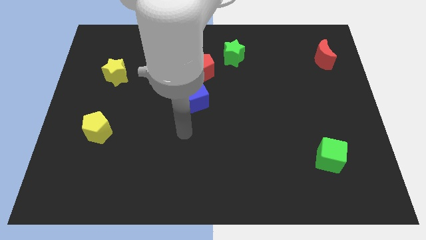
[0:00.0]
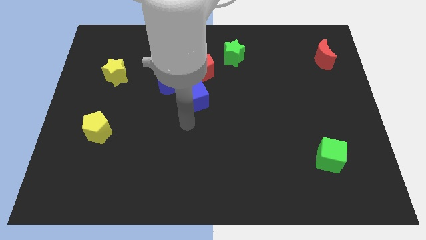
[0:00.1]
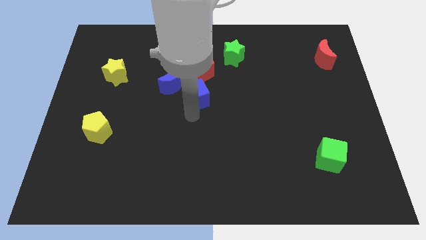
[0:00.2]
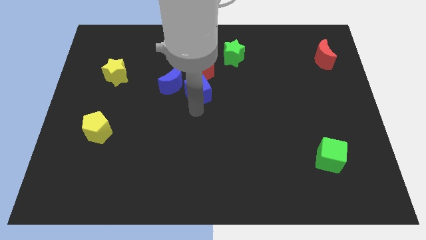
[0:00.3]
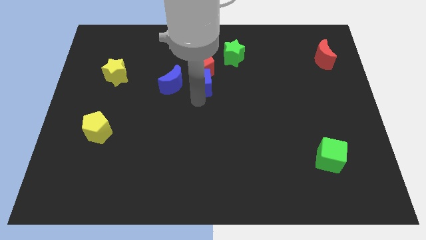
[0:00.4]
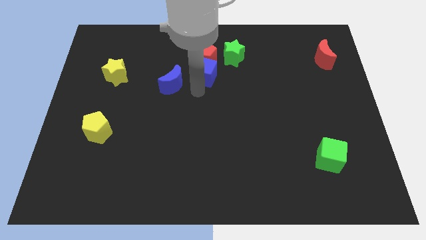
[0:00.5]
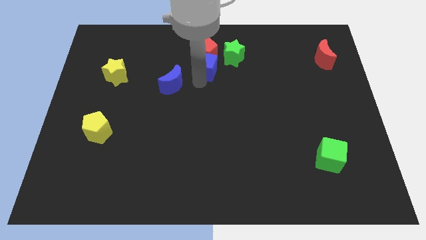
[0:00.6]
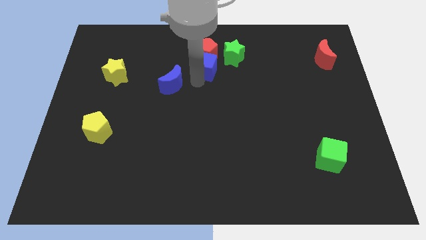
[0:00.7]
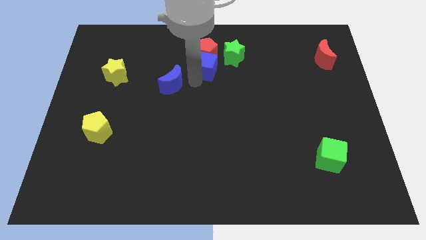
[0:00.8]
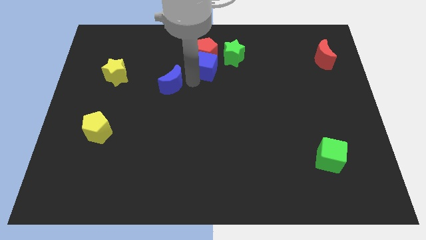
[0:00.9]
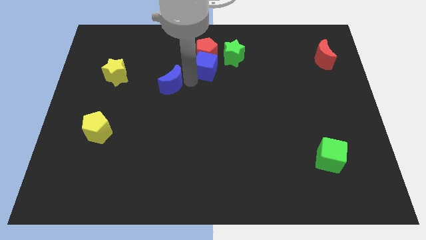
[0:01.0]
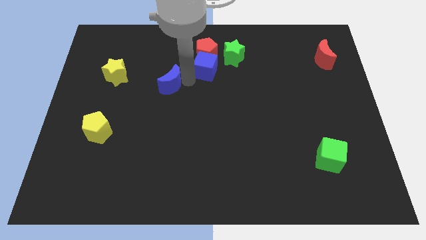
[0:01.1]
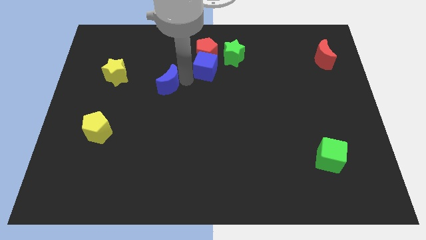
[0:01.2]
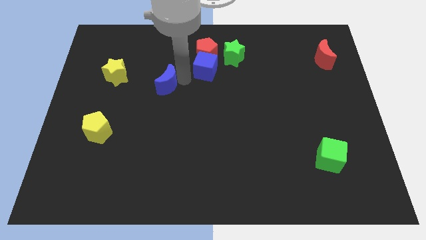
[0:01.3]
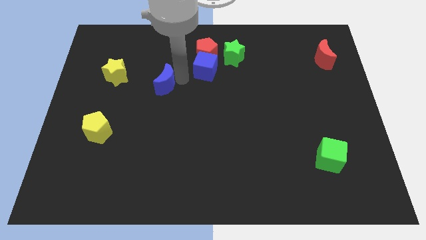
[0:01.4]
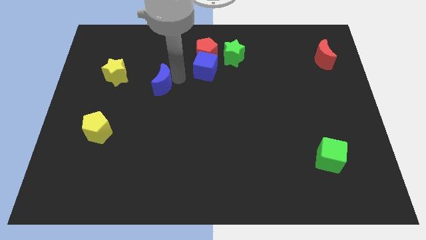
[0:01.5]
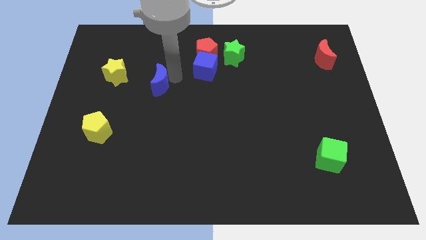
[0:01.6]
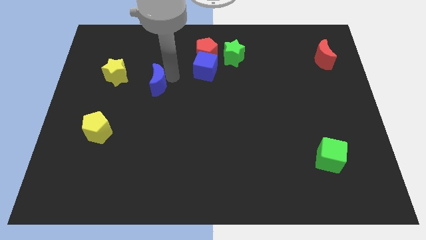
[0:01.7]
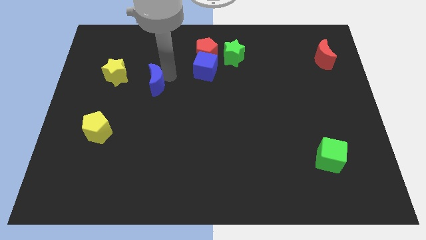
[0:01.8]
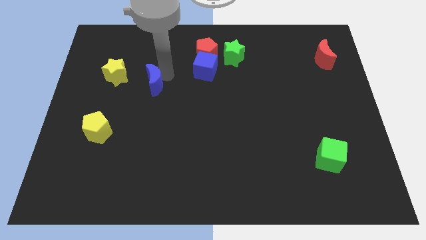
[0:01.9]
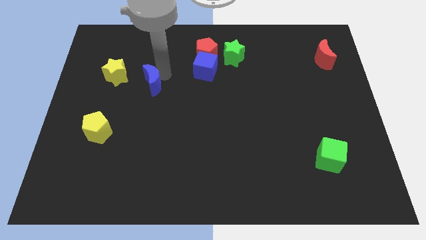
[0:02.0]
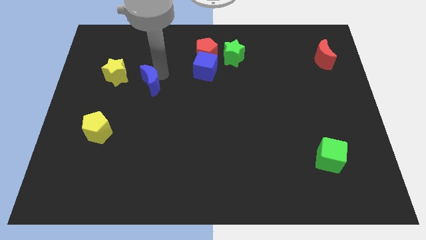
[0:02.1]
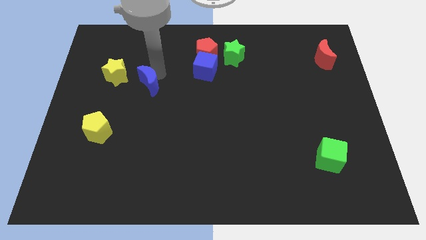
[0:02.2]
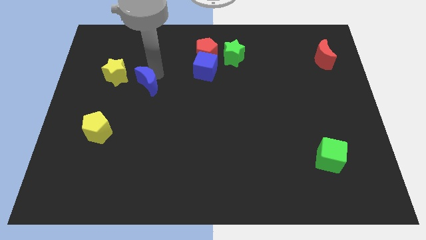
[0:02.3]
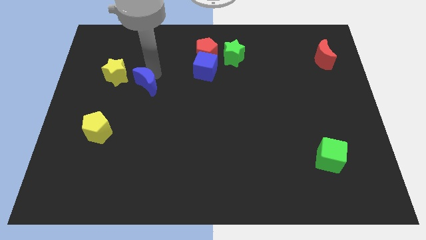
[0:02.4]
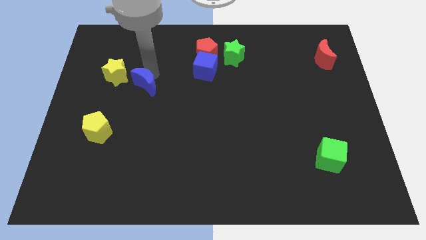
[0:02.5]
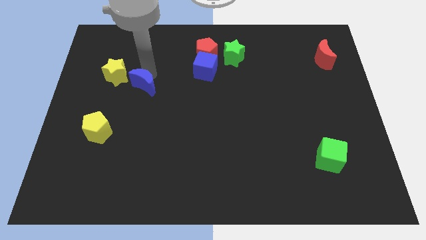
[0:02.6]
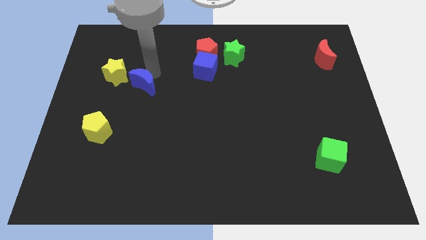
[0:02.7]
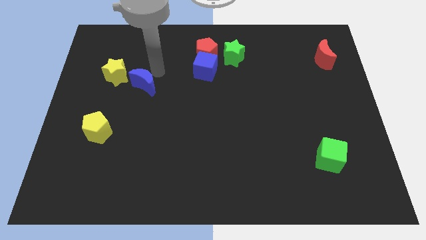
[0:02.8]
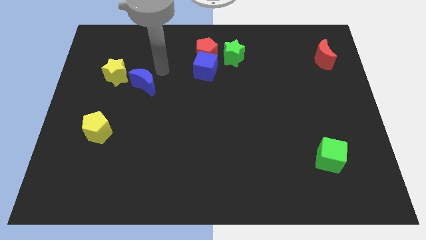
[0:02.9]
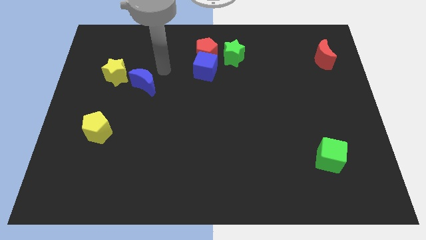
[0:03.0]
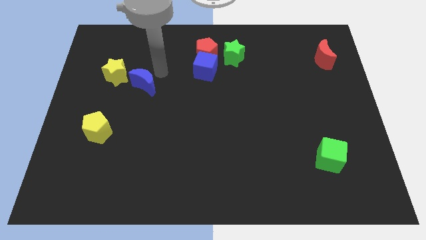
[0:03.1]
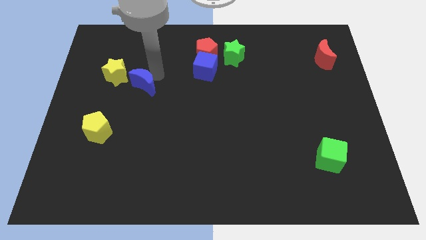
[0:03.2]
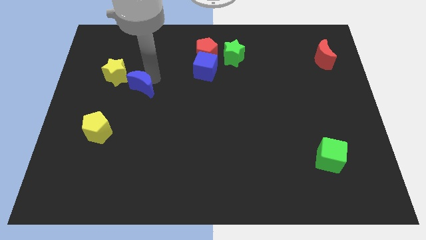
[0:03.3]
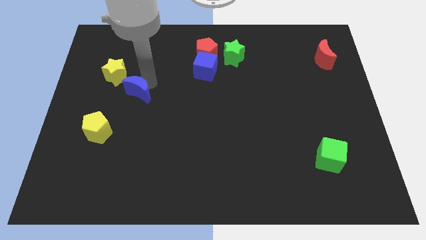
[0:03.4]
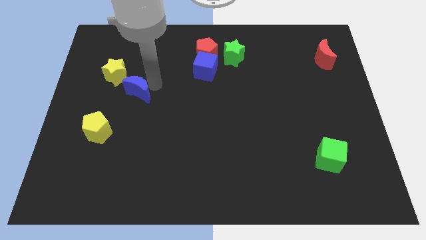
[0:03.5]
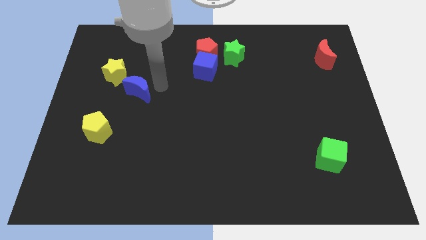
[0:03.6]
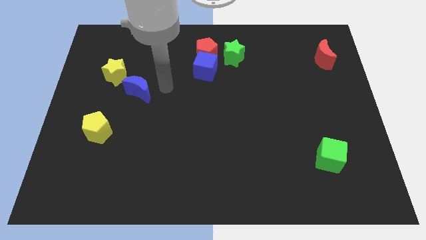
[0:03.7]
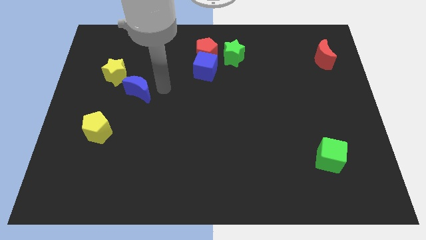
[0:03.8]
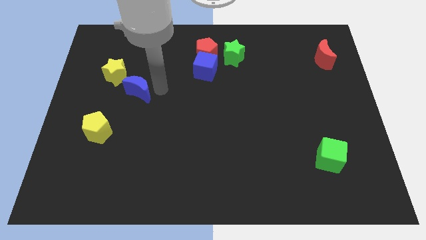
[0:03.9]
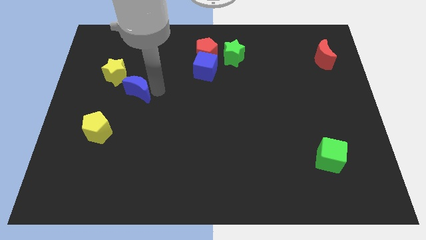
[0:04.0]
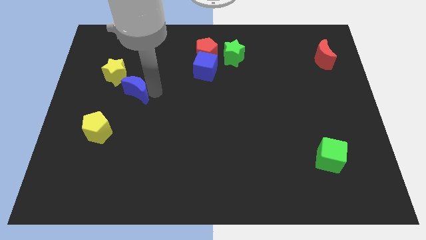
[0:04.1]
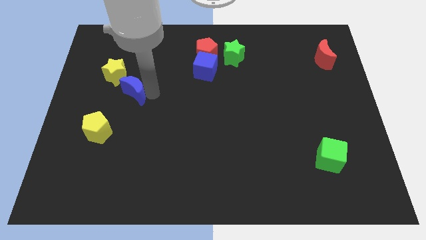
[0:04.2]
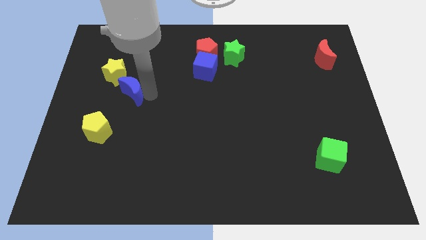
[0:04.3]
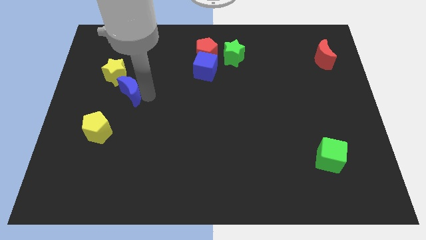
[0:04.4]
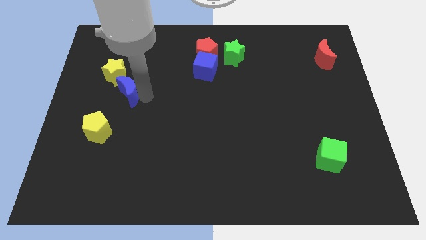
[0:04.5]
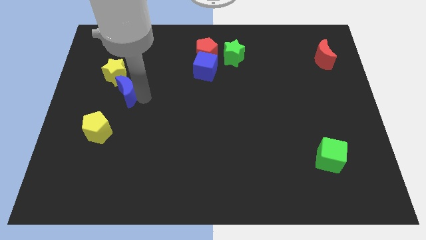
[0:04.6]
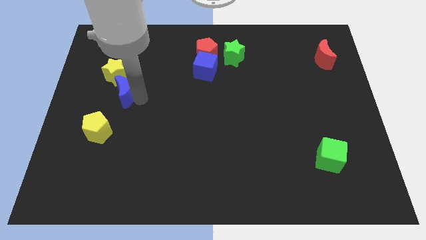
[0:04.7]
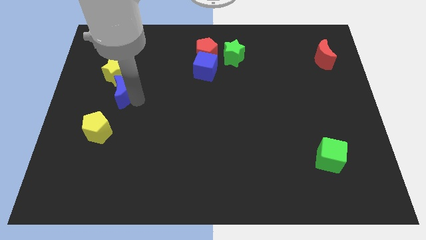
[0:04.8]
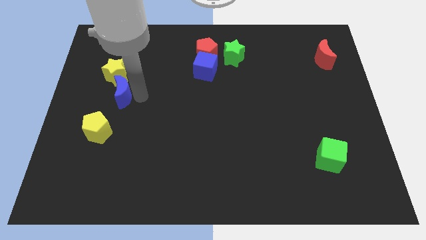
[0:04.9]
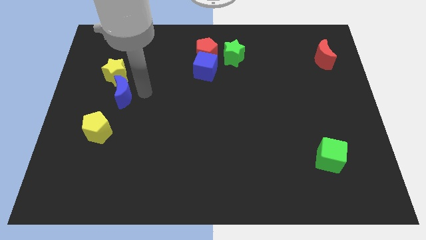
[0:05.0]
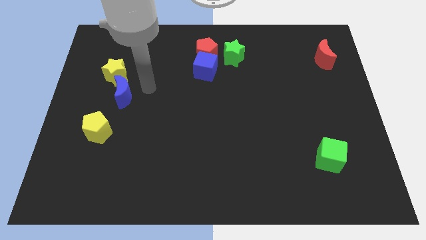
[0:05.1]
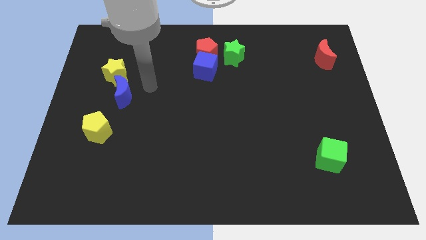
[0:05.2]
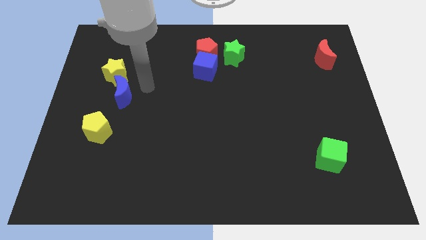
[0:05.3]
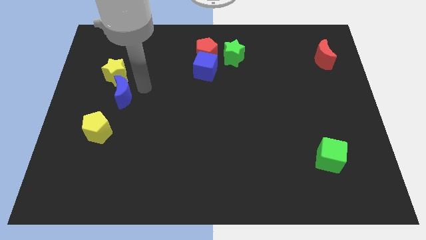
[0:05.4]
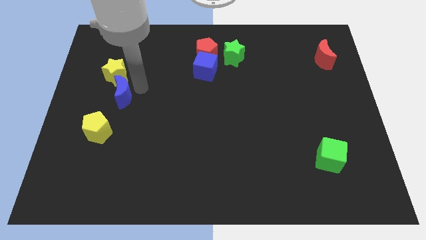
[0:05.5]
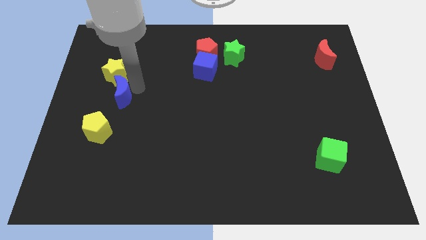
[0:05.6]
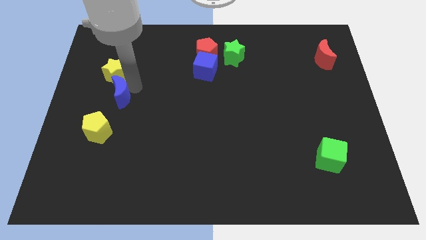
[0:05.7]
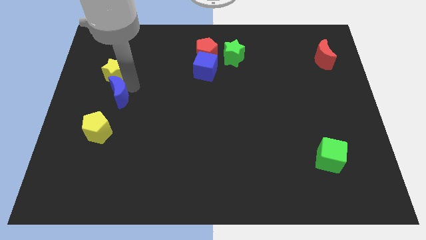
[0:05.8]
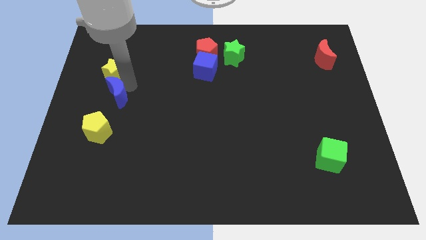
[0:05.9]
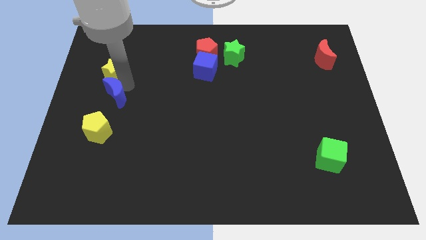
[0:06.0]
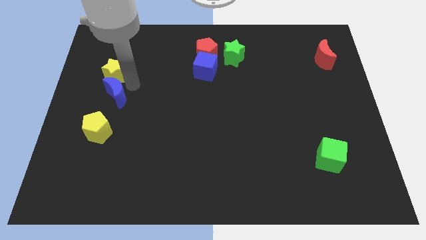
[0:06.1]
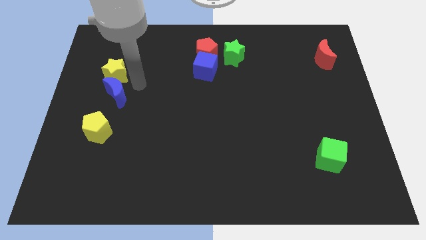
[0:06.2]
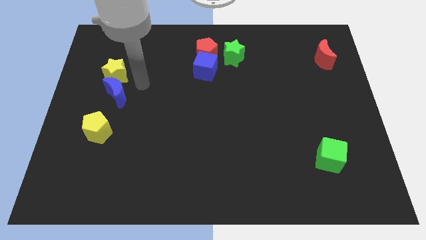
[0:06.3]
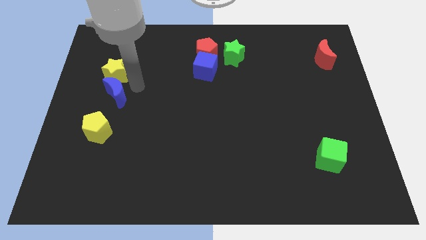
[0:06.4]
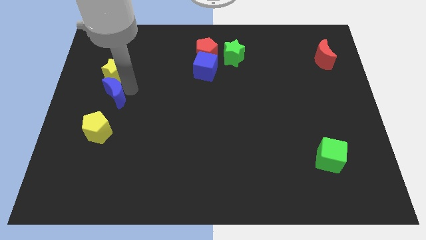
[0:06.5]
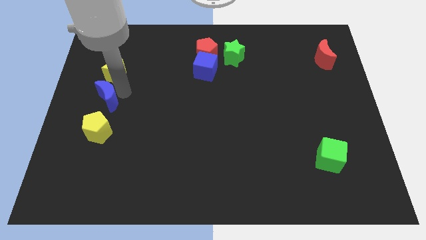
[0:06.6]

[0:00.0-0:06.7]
move the blue moon to the center left

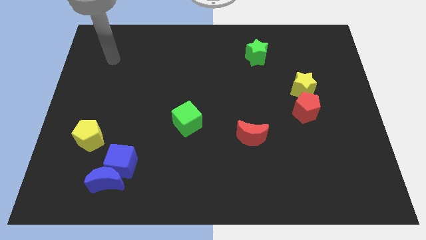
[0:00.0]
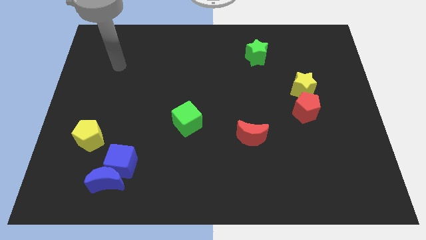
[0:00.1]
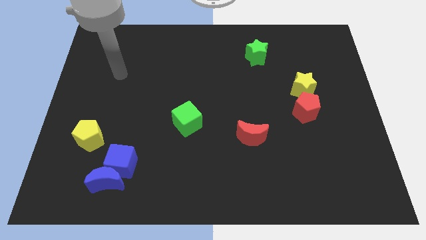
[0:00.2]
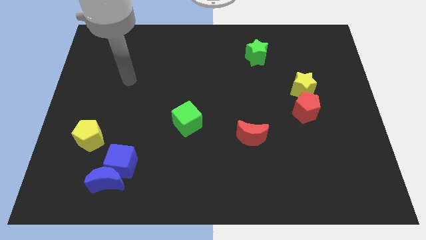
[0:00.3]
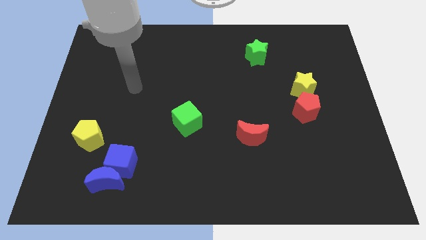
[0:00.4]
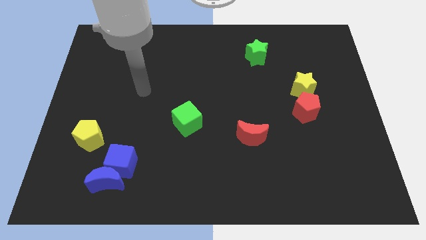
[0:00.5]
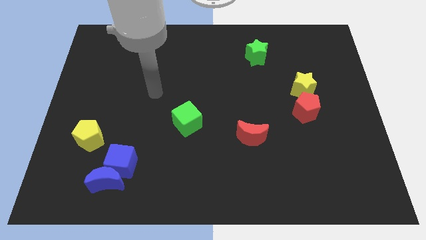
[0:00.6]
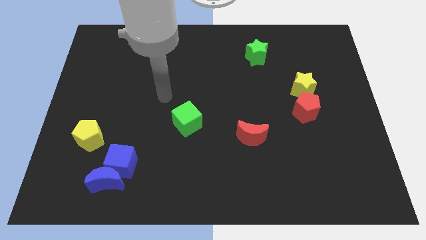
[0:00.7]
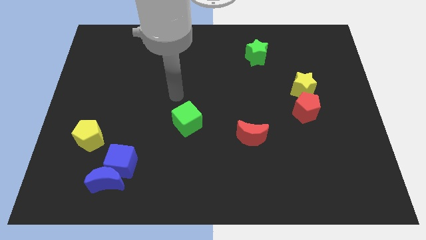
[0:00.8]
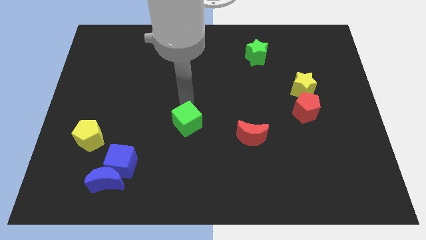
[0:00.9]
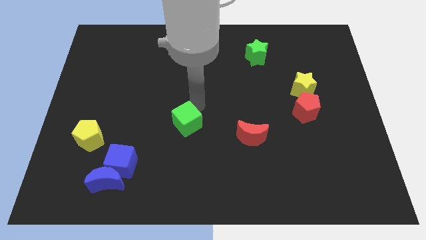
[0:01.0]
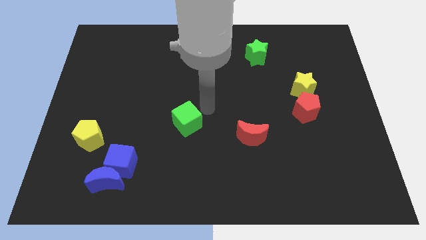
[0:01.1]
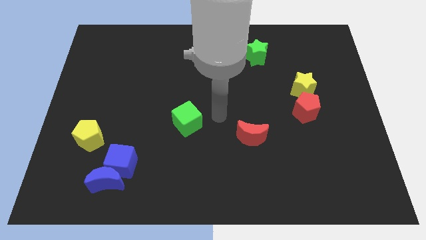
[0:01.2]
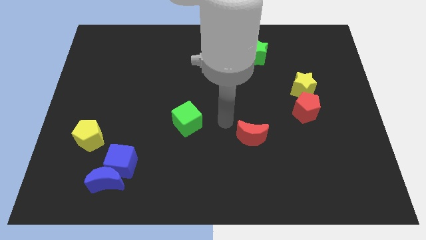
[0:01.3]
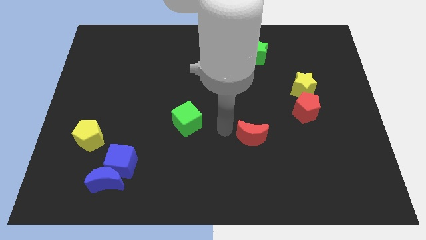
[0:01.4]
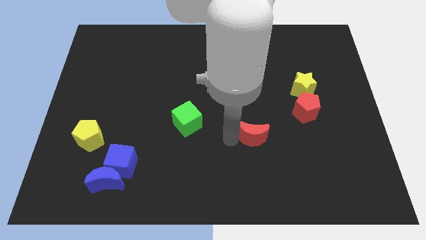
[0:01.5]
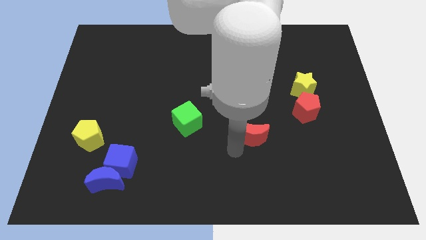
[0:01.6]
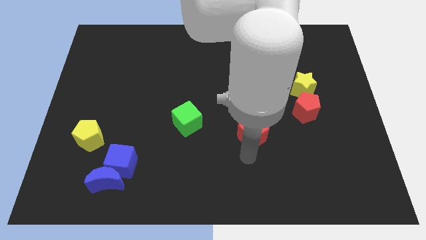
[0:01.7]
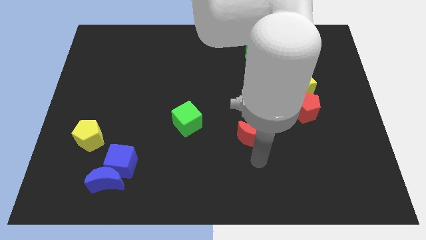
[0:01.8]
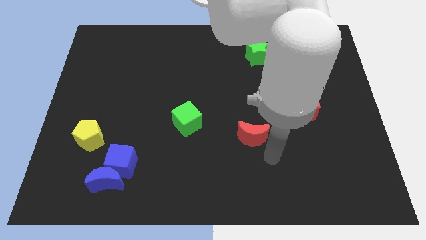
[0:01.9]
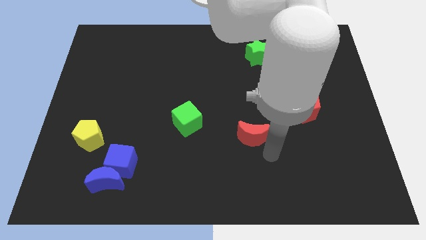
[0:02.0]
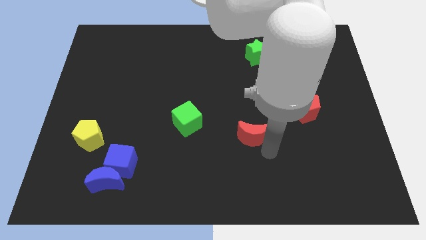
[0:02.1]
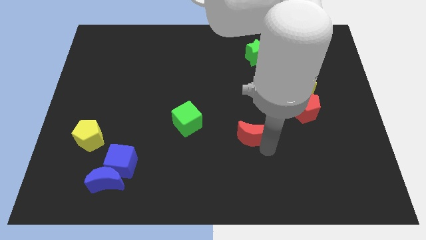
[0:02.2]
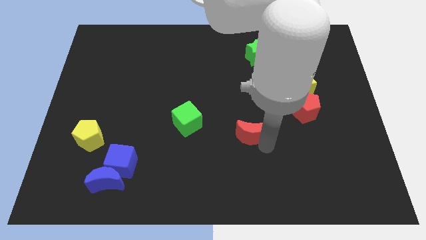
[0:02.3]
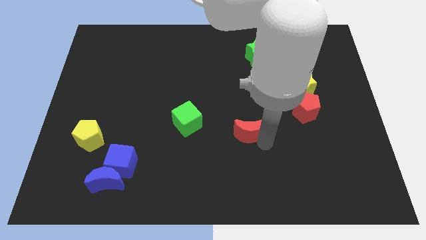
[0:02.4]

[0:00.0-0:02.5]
move the red moon to the middle of the board
